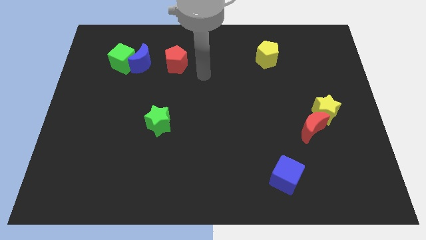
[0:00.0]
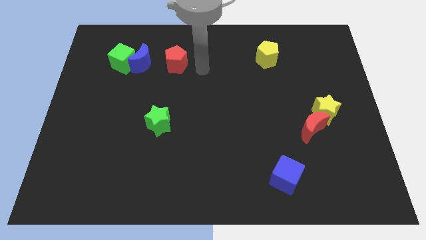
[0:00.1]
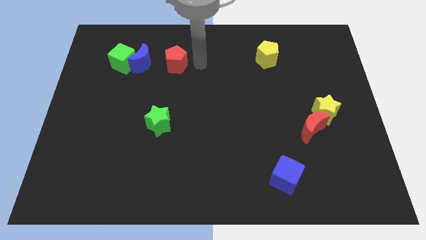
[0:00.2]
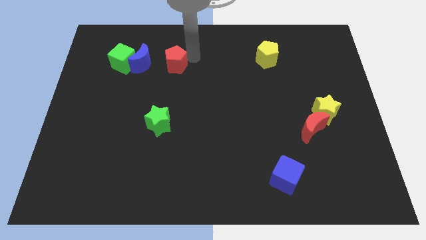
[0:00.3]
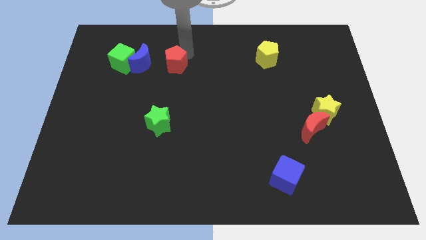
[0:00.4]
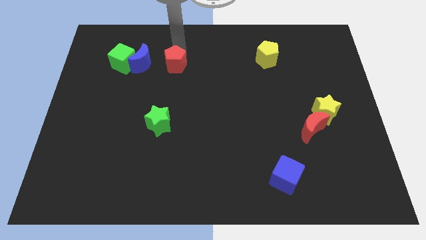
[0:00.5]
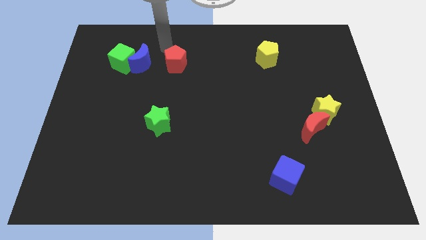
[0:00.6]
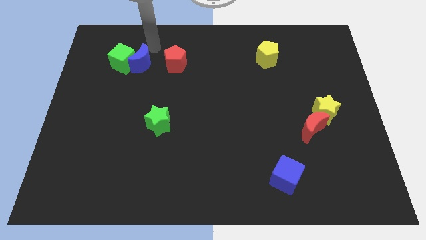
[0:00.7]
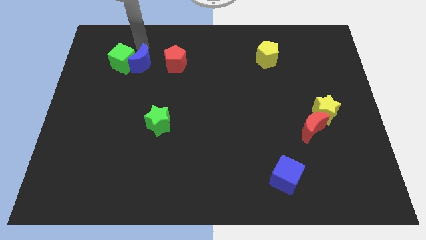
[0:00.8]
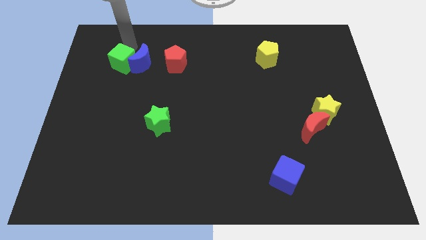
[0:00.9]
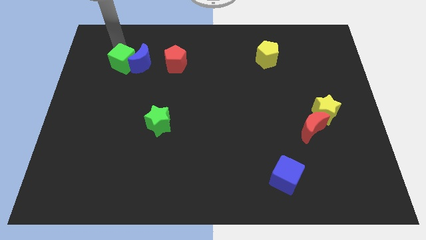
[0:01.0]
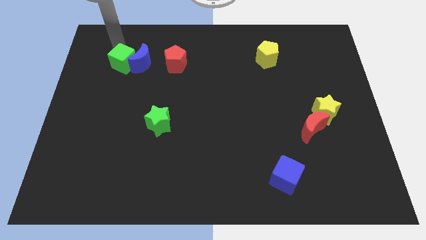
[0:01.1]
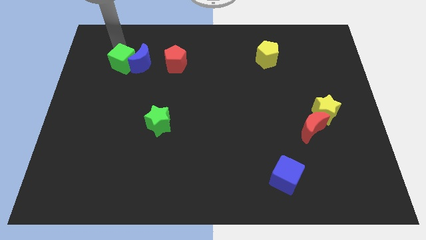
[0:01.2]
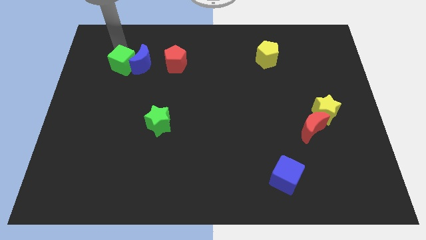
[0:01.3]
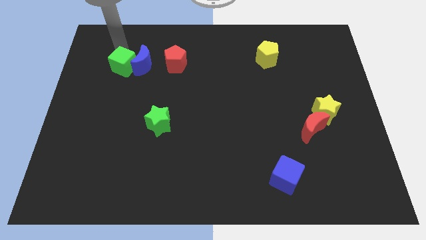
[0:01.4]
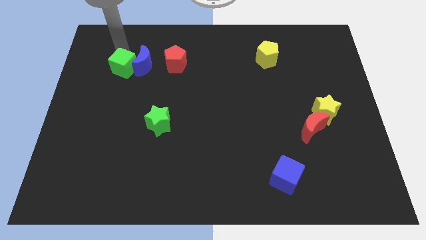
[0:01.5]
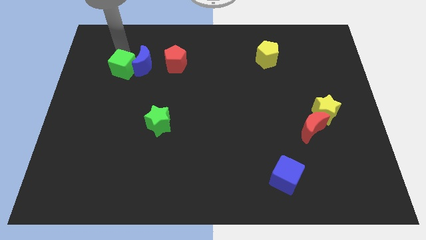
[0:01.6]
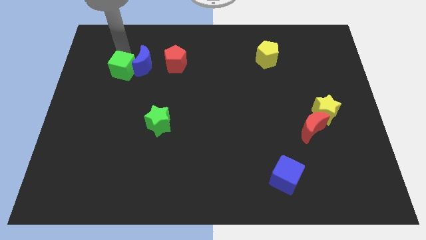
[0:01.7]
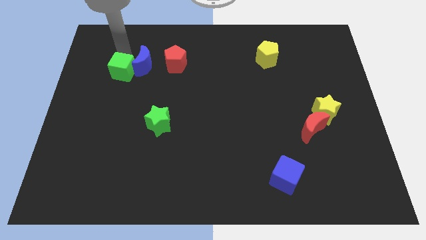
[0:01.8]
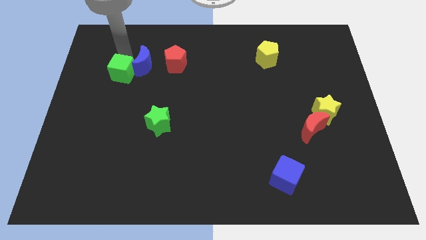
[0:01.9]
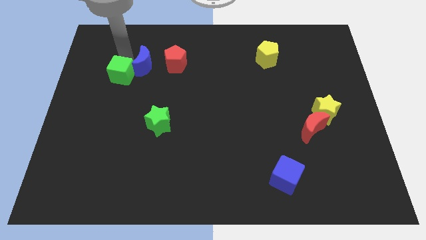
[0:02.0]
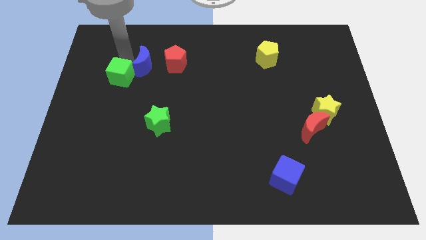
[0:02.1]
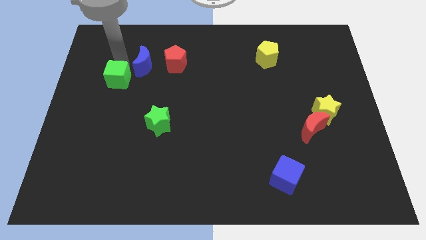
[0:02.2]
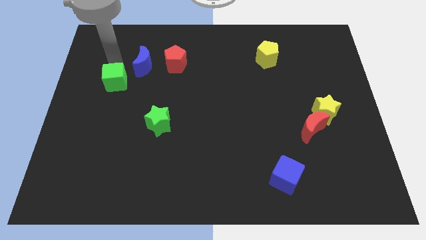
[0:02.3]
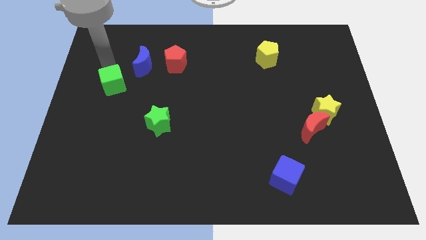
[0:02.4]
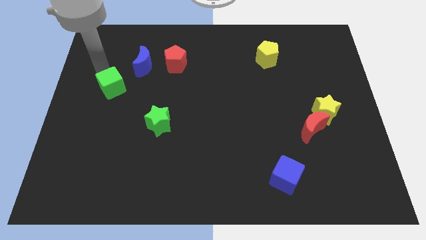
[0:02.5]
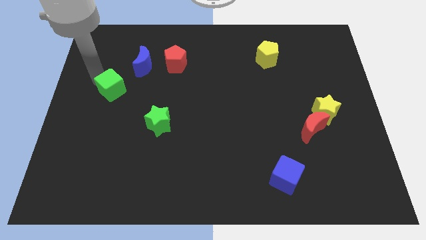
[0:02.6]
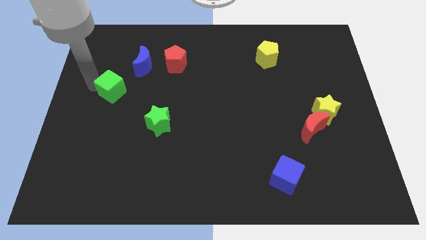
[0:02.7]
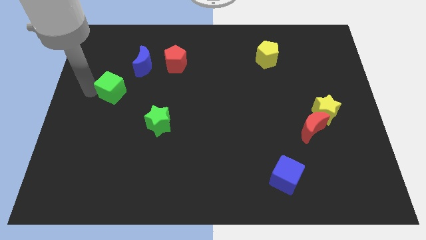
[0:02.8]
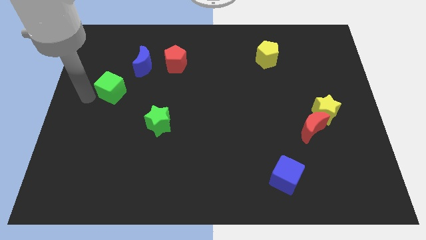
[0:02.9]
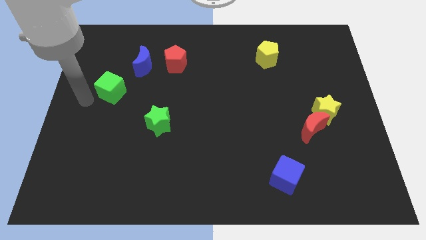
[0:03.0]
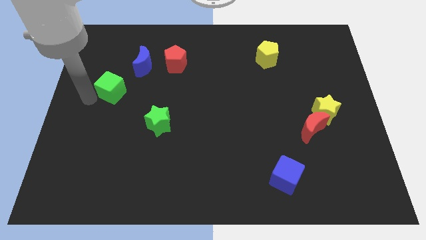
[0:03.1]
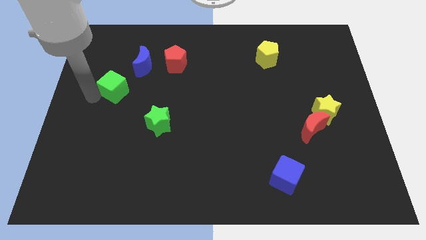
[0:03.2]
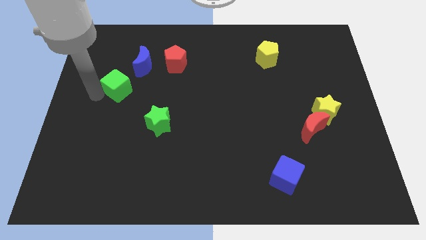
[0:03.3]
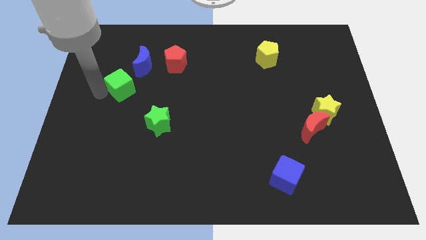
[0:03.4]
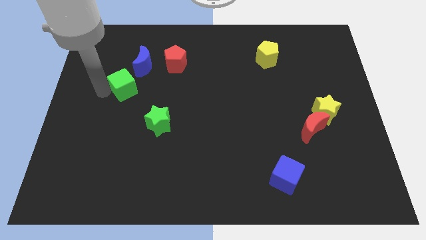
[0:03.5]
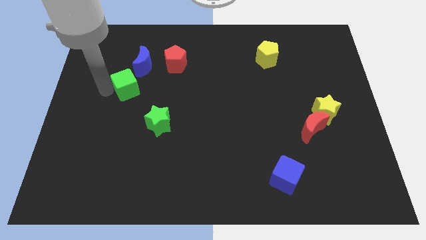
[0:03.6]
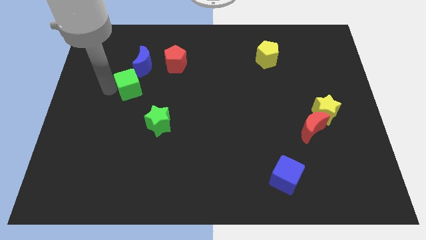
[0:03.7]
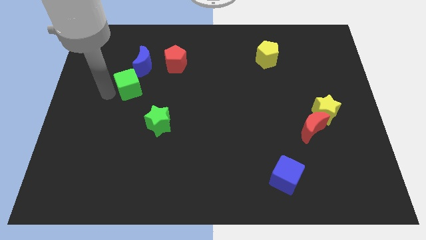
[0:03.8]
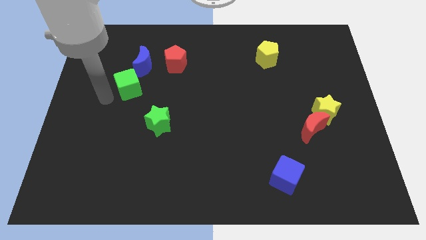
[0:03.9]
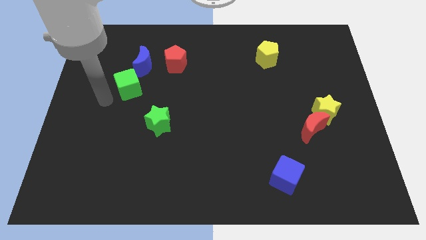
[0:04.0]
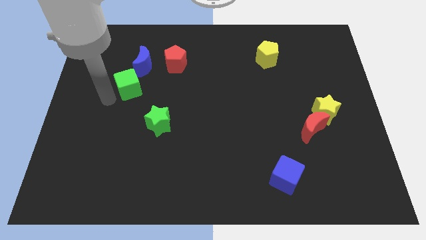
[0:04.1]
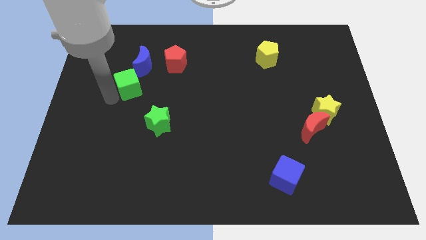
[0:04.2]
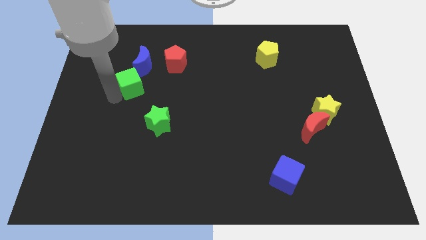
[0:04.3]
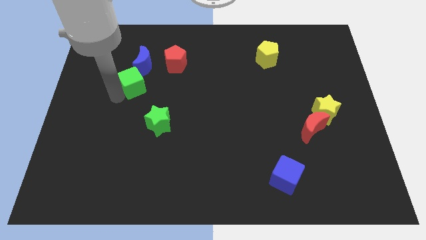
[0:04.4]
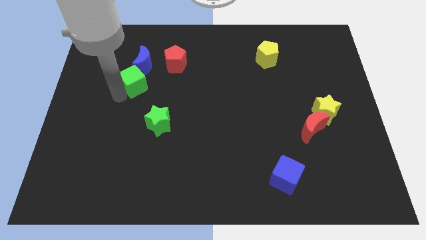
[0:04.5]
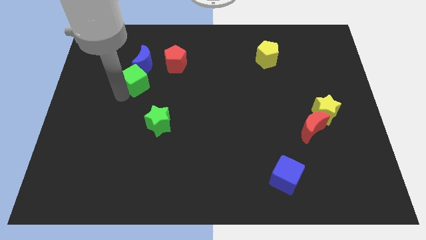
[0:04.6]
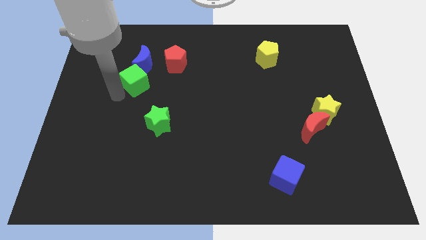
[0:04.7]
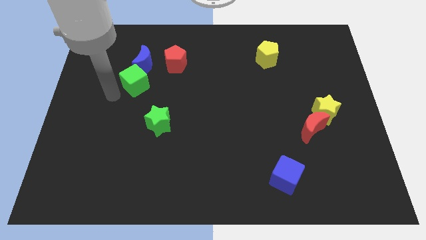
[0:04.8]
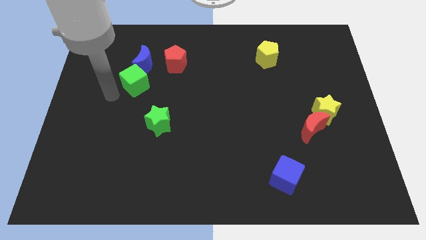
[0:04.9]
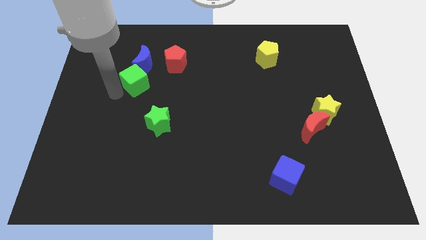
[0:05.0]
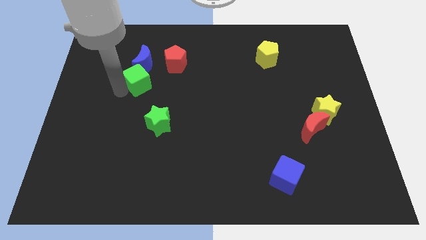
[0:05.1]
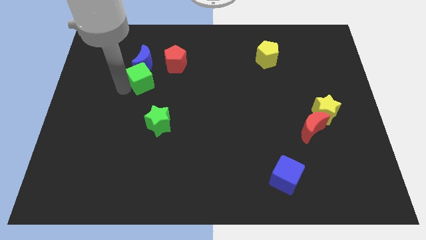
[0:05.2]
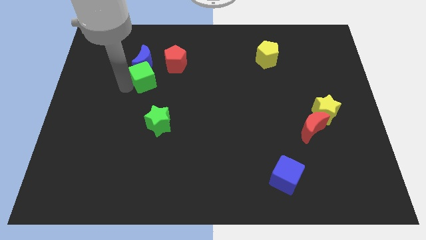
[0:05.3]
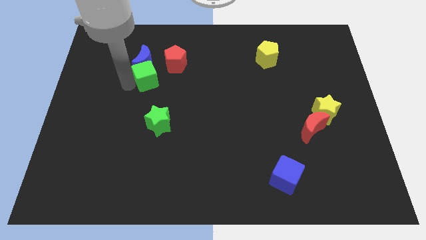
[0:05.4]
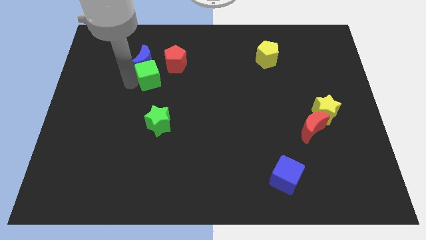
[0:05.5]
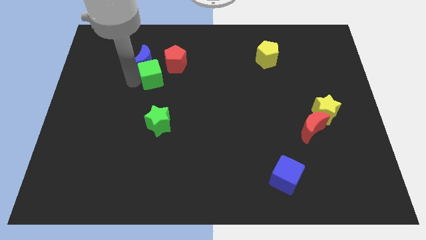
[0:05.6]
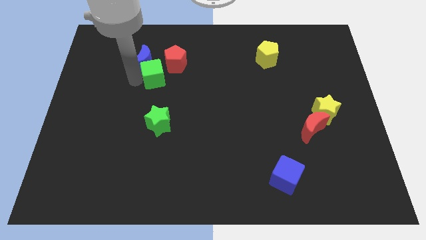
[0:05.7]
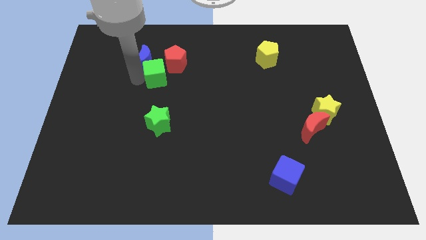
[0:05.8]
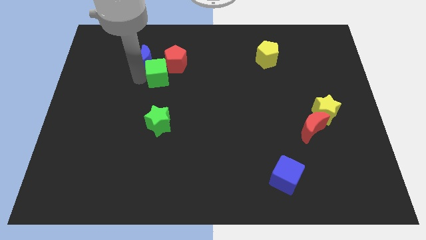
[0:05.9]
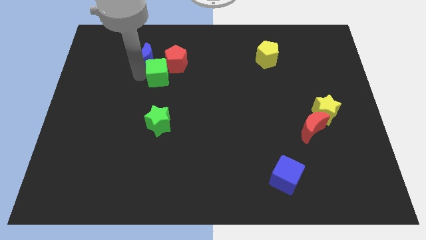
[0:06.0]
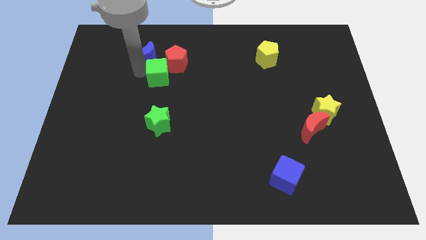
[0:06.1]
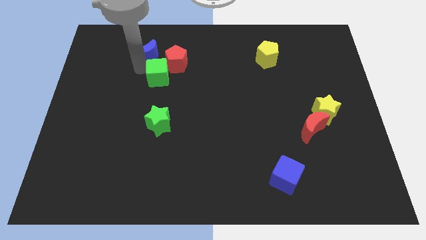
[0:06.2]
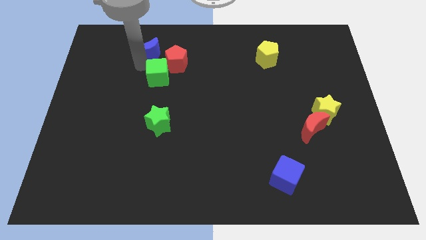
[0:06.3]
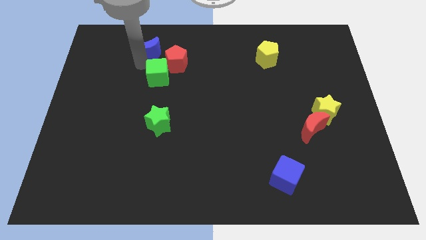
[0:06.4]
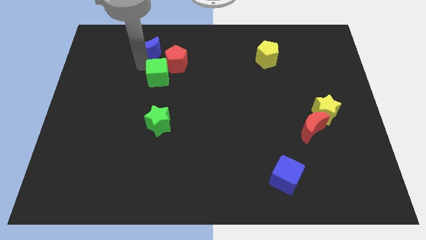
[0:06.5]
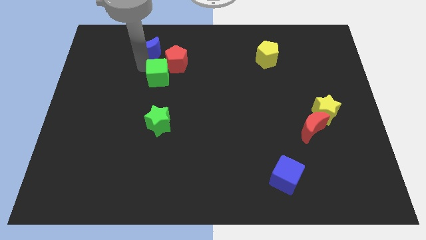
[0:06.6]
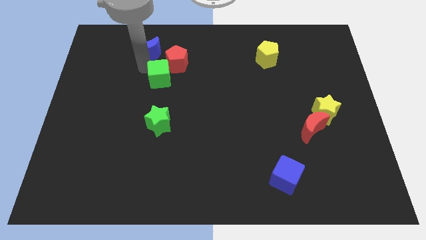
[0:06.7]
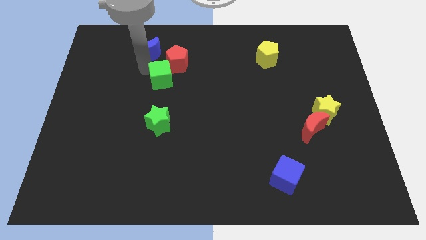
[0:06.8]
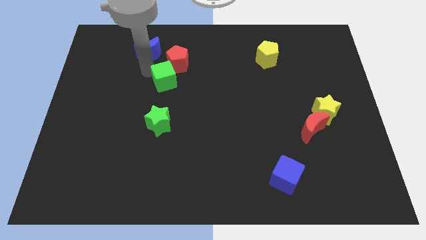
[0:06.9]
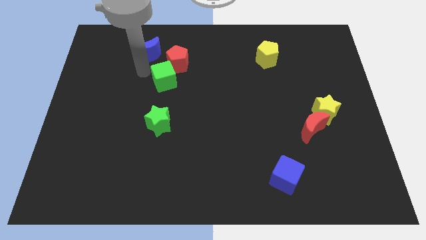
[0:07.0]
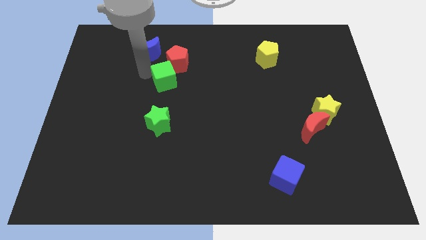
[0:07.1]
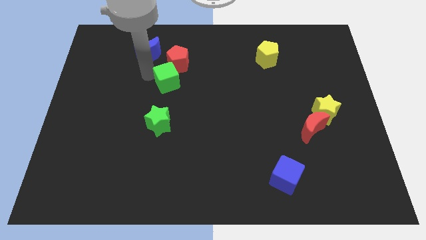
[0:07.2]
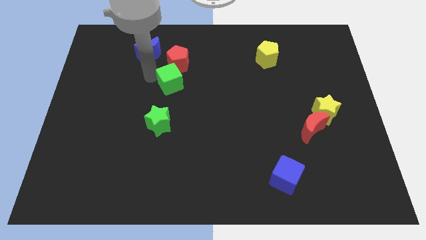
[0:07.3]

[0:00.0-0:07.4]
put the green cube to the middle of the board
